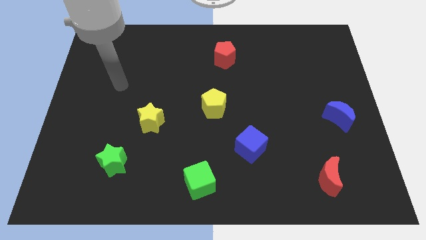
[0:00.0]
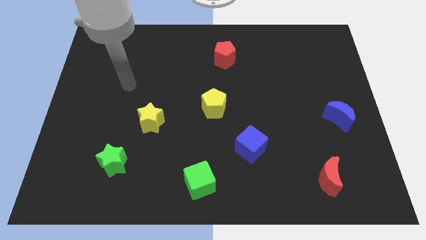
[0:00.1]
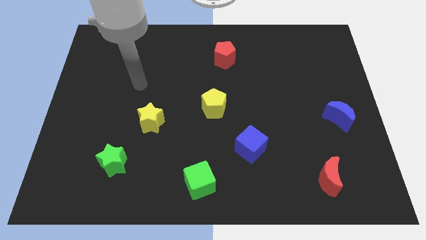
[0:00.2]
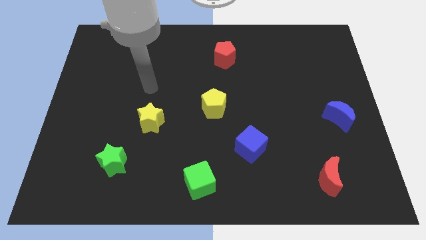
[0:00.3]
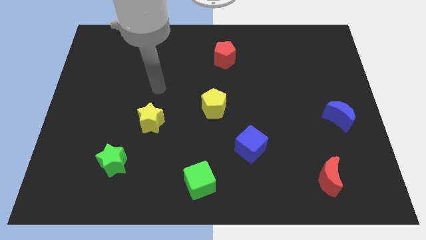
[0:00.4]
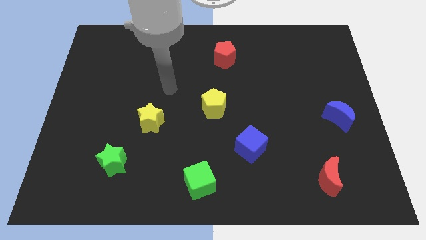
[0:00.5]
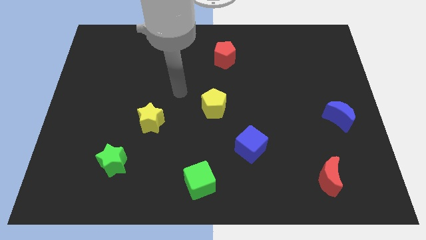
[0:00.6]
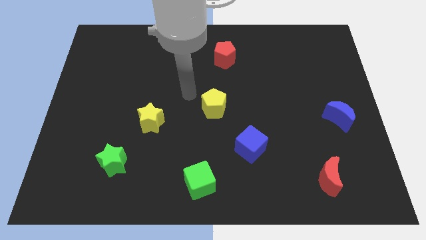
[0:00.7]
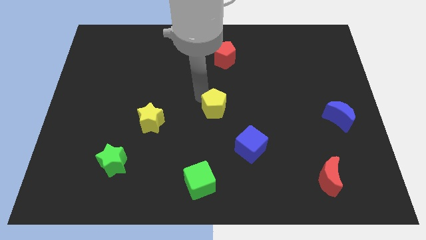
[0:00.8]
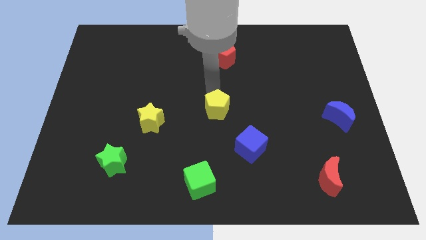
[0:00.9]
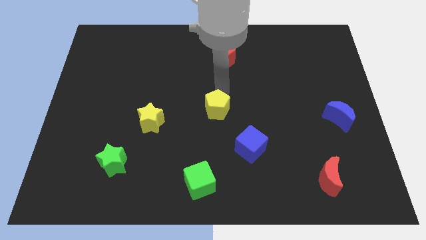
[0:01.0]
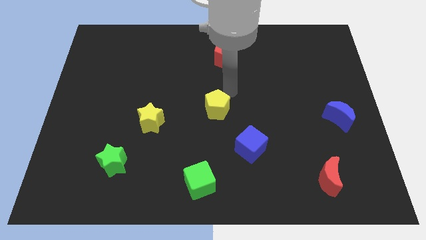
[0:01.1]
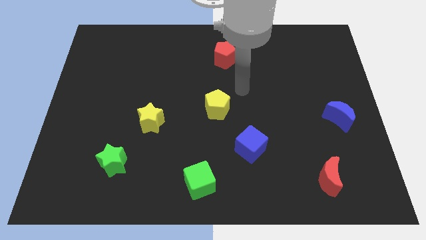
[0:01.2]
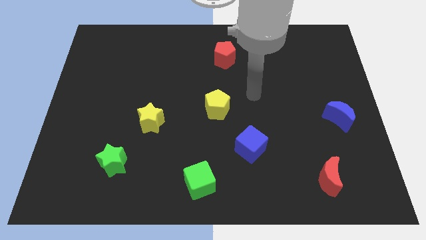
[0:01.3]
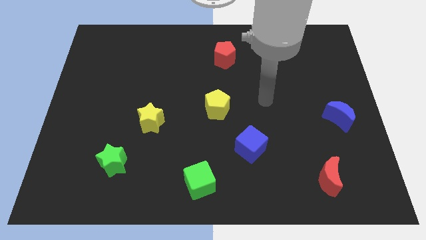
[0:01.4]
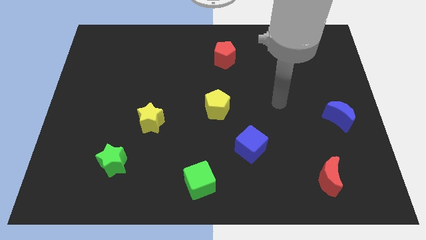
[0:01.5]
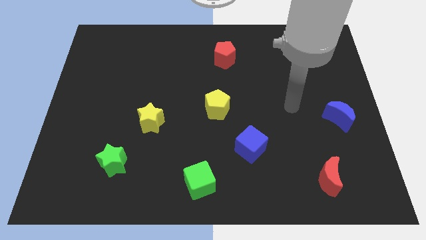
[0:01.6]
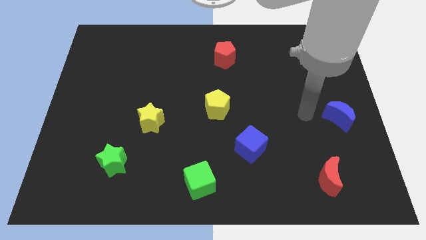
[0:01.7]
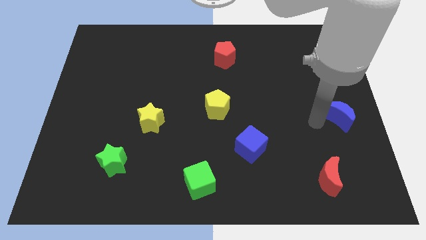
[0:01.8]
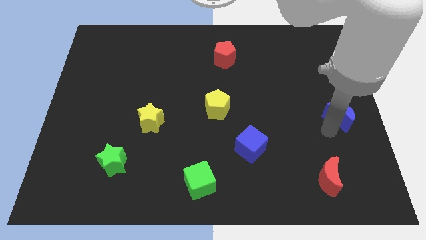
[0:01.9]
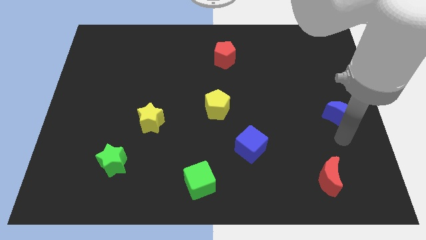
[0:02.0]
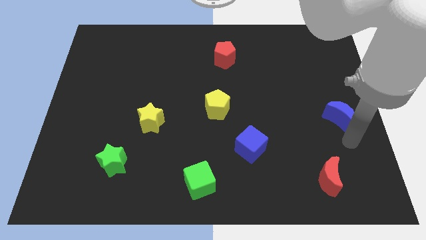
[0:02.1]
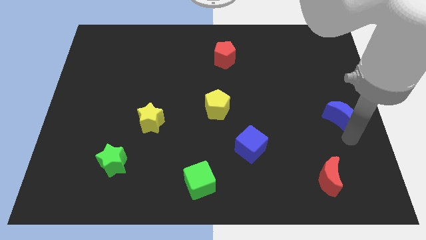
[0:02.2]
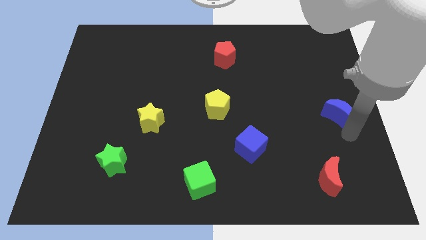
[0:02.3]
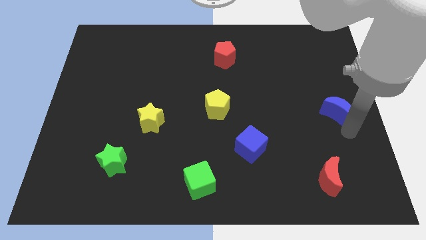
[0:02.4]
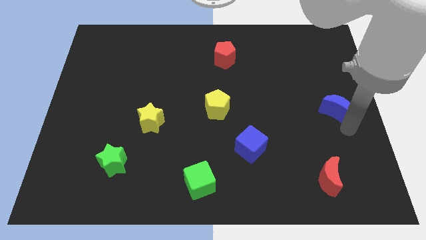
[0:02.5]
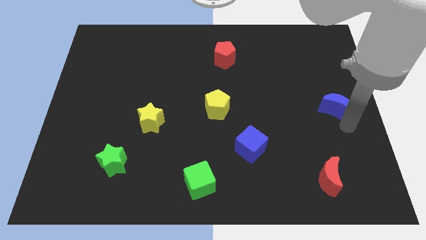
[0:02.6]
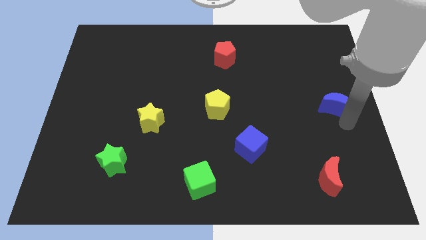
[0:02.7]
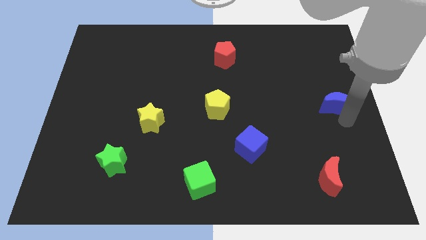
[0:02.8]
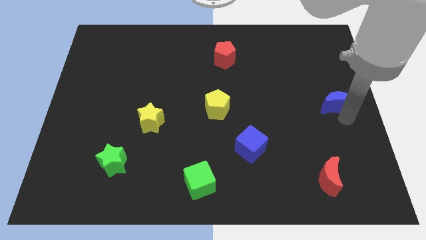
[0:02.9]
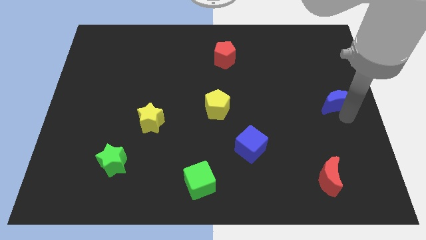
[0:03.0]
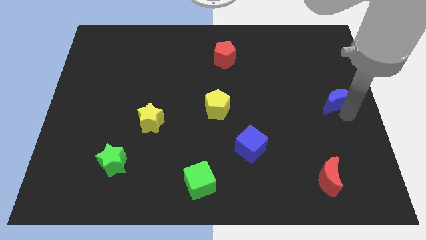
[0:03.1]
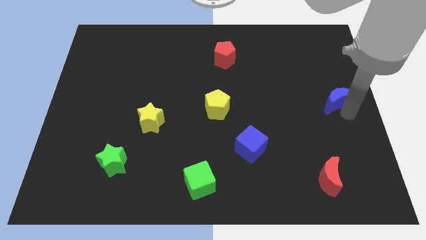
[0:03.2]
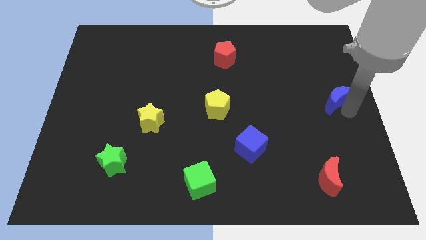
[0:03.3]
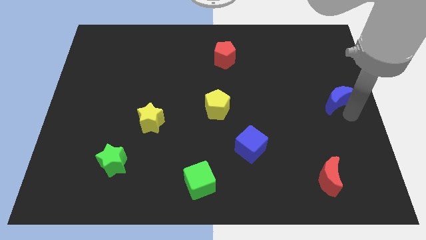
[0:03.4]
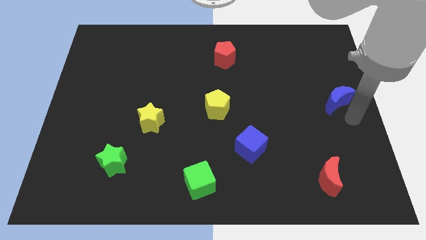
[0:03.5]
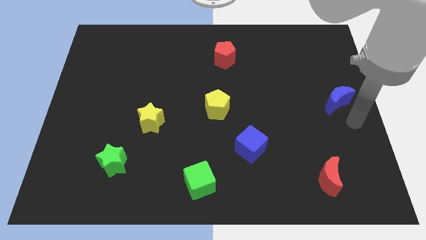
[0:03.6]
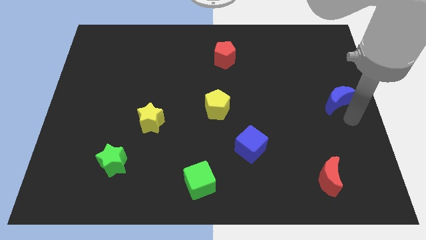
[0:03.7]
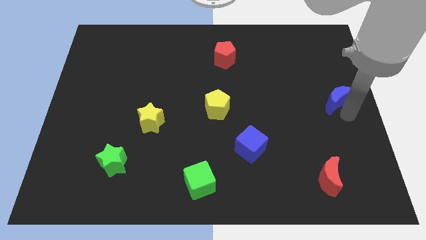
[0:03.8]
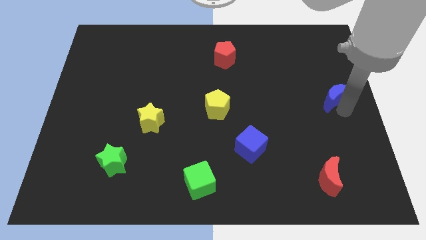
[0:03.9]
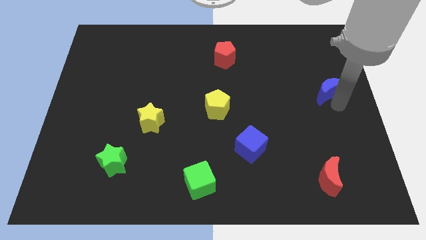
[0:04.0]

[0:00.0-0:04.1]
push the blue moon somewhat up

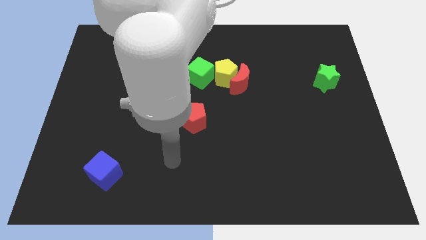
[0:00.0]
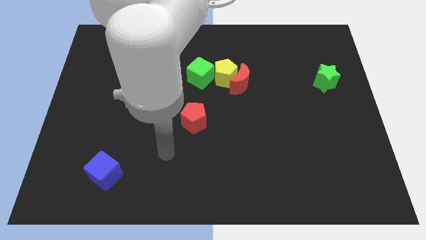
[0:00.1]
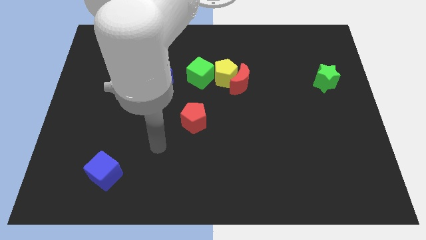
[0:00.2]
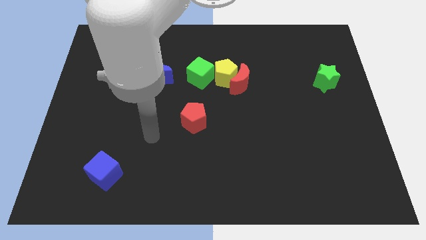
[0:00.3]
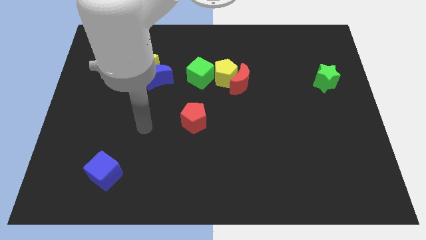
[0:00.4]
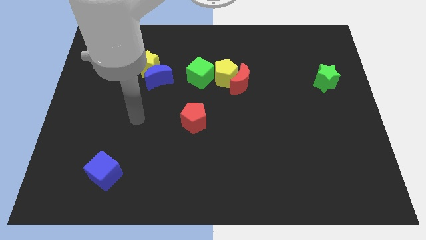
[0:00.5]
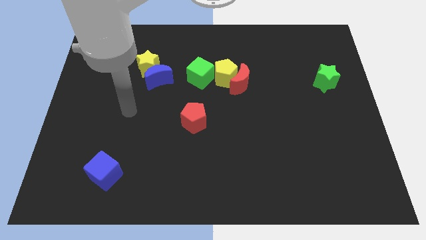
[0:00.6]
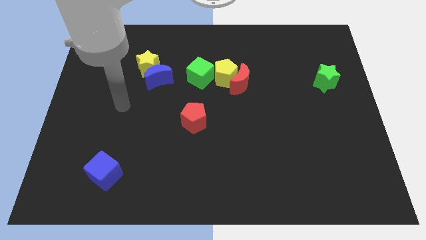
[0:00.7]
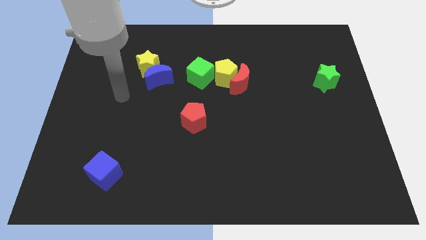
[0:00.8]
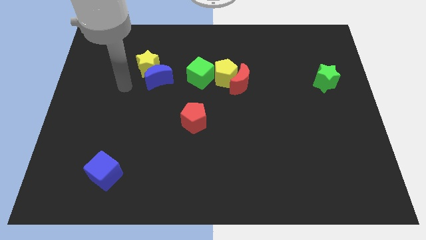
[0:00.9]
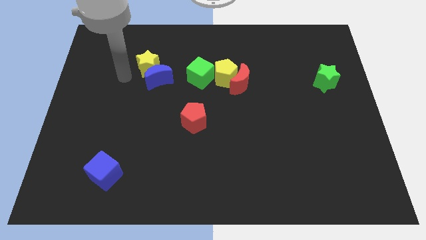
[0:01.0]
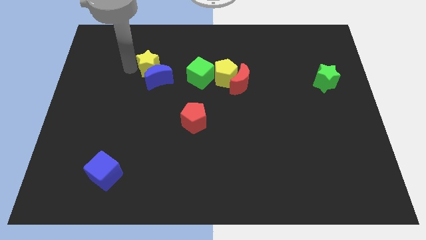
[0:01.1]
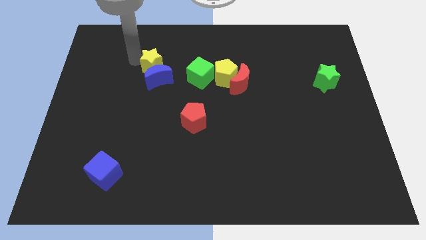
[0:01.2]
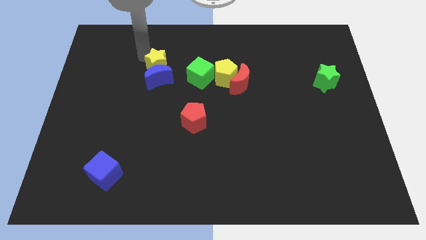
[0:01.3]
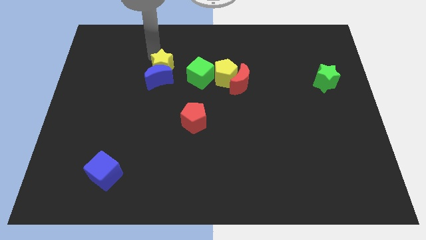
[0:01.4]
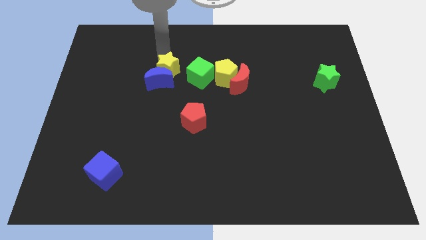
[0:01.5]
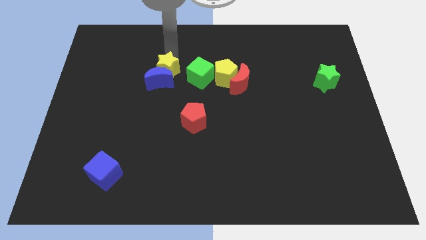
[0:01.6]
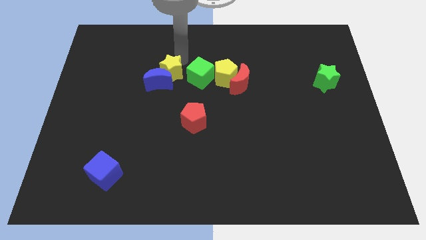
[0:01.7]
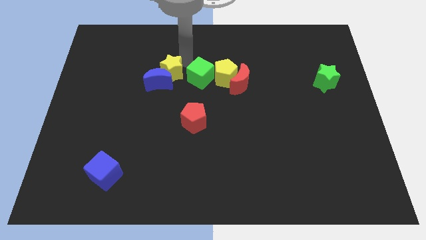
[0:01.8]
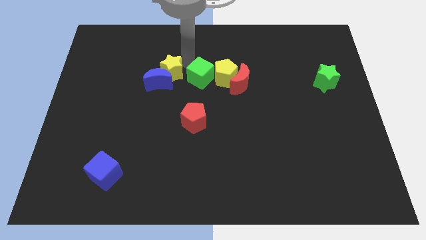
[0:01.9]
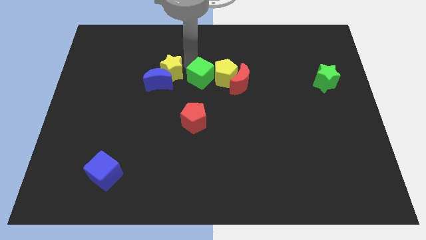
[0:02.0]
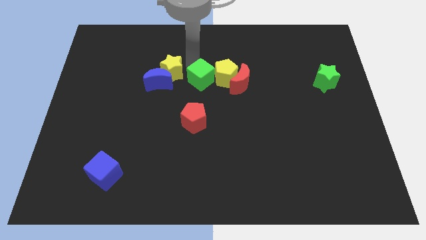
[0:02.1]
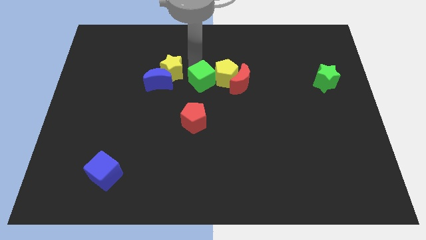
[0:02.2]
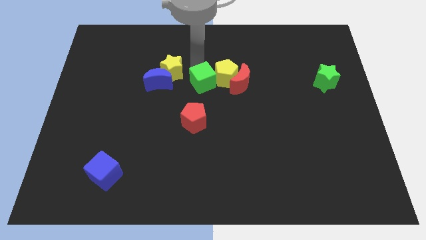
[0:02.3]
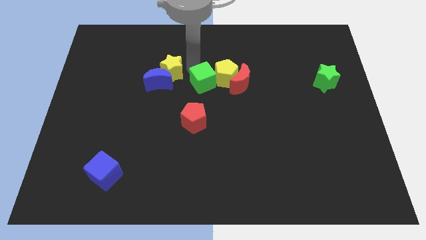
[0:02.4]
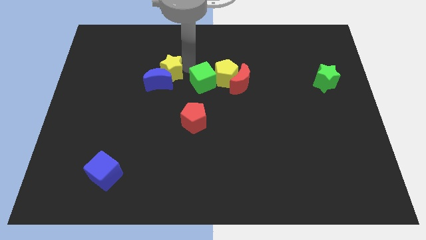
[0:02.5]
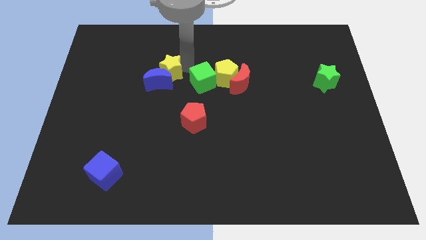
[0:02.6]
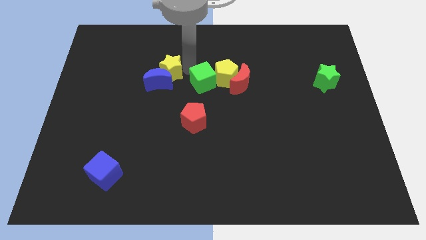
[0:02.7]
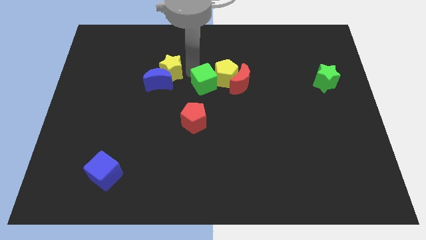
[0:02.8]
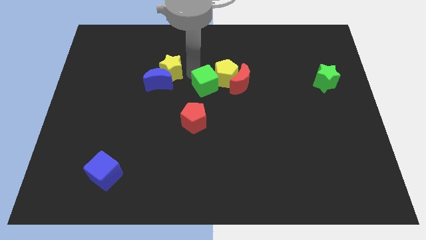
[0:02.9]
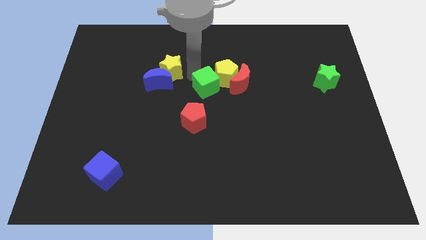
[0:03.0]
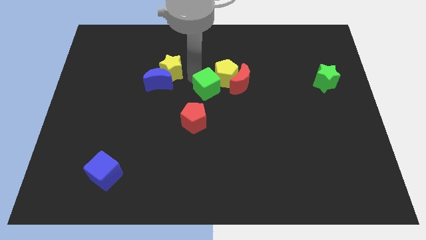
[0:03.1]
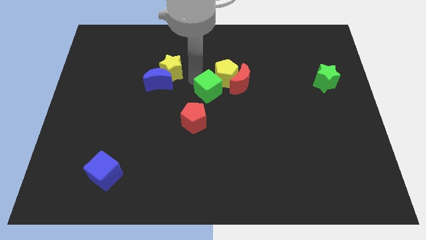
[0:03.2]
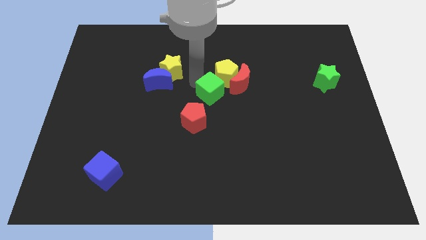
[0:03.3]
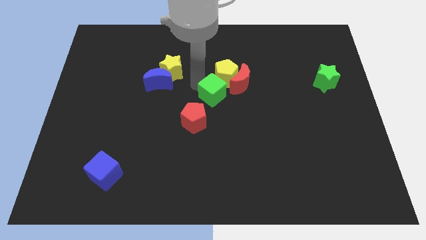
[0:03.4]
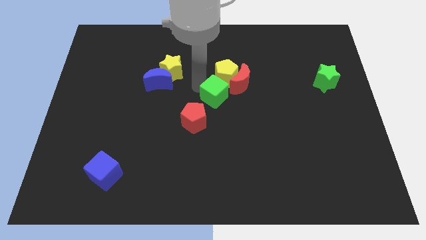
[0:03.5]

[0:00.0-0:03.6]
push the green cube diagonally down and to the right a bit

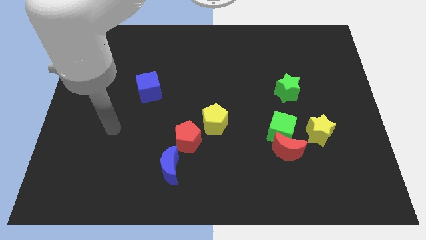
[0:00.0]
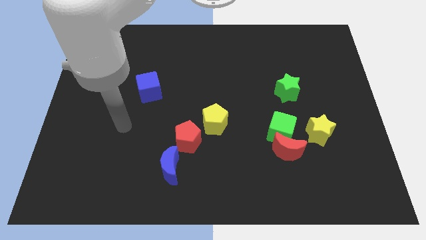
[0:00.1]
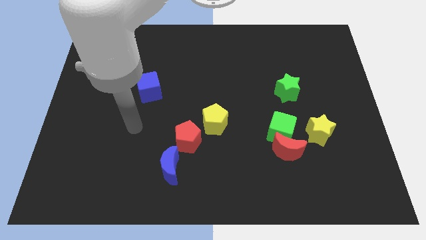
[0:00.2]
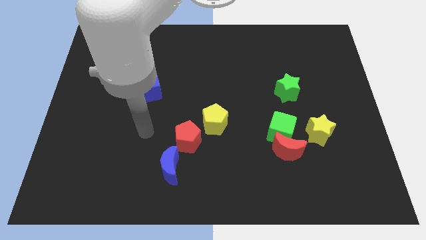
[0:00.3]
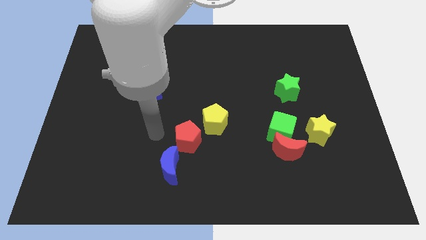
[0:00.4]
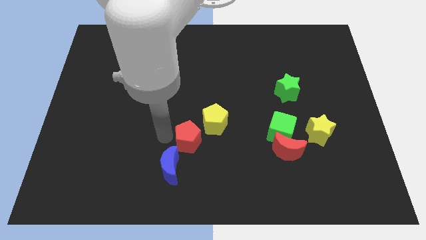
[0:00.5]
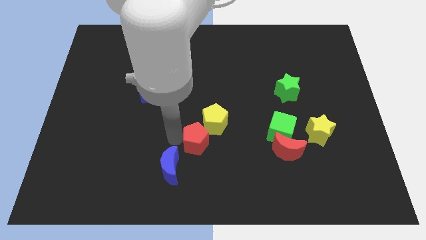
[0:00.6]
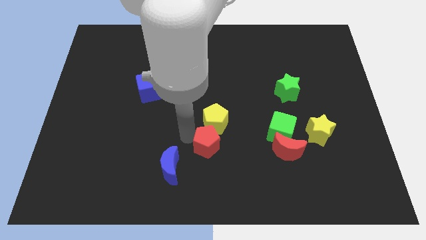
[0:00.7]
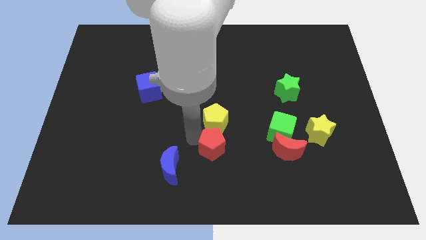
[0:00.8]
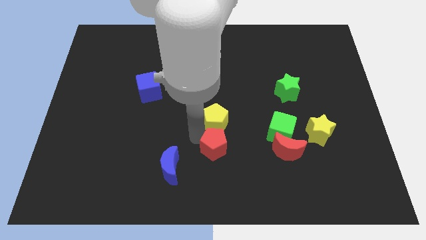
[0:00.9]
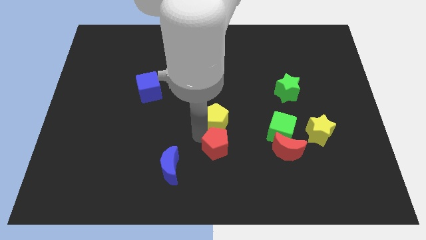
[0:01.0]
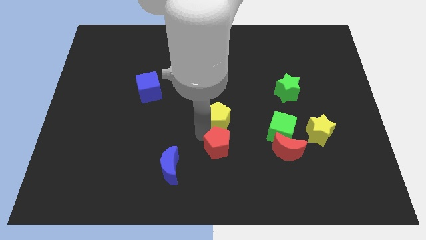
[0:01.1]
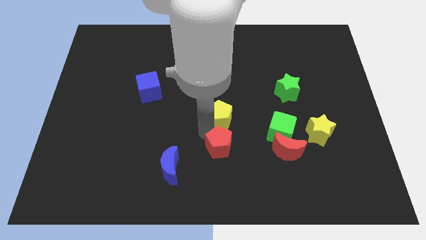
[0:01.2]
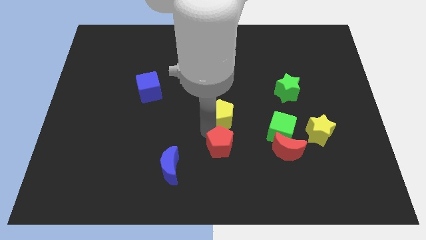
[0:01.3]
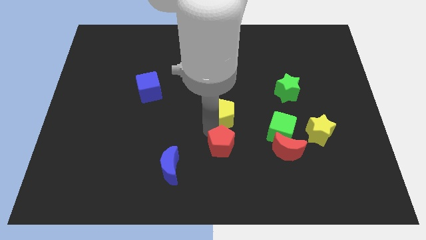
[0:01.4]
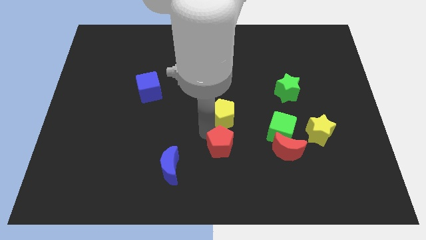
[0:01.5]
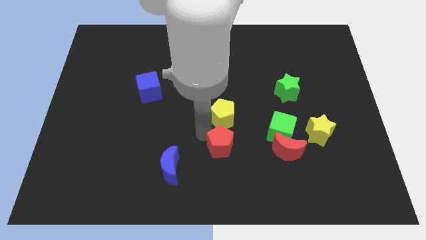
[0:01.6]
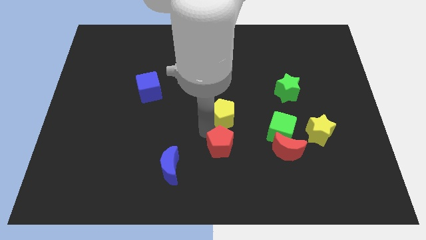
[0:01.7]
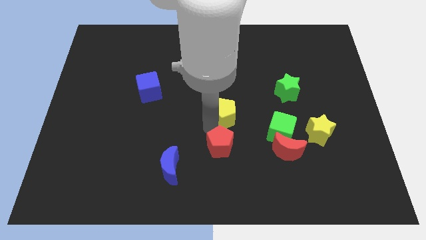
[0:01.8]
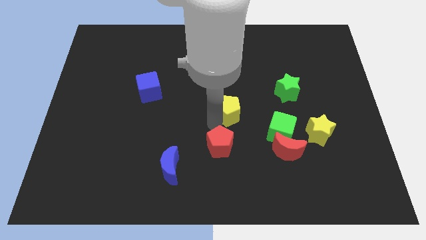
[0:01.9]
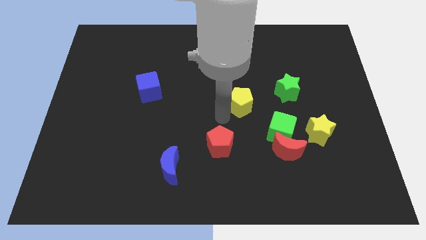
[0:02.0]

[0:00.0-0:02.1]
move the yellow pentagon upwards and right a little
